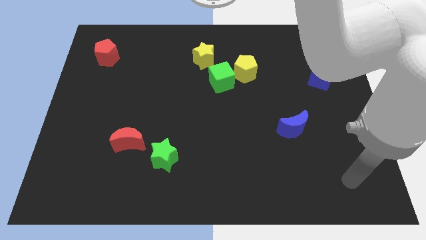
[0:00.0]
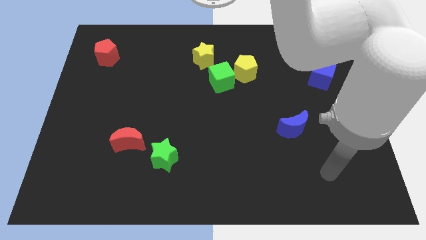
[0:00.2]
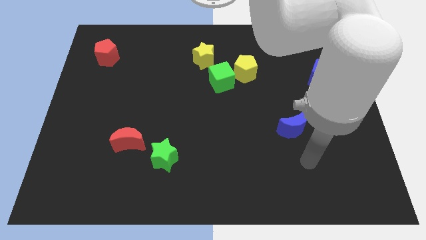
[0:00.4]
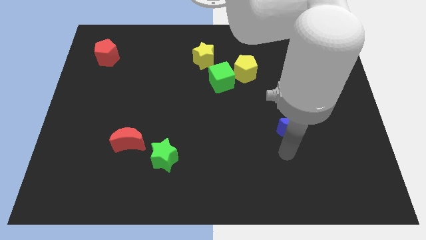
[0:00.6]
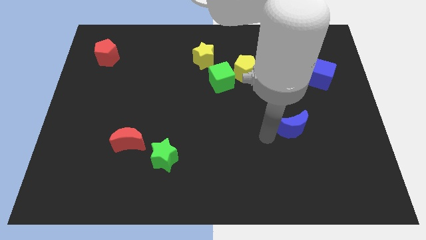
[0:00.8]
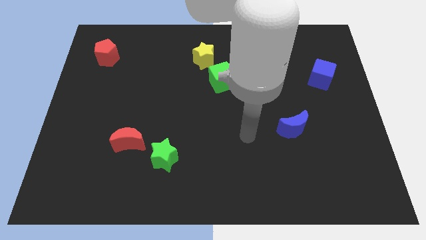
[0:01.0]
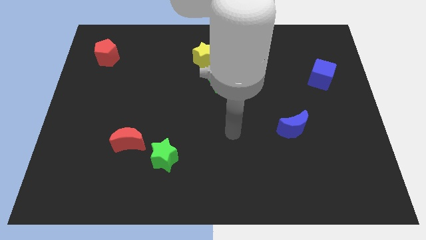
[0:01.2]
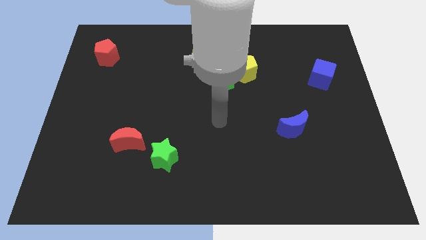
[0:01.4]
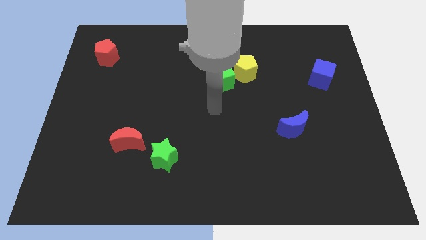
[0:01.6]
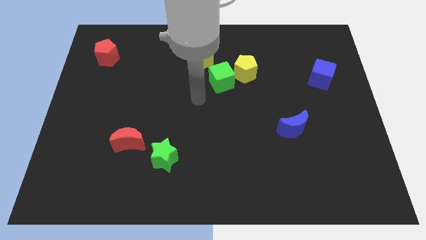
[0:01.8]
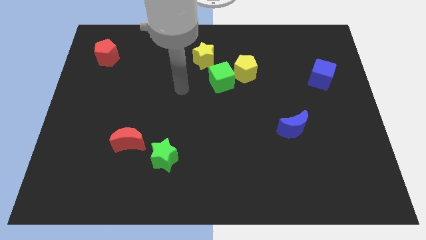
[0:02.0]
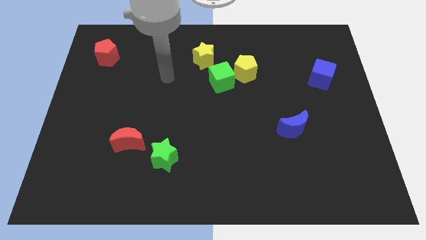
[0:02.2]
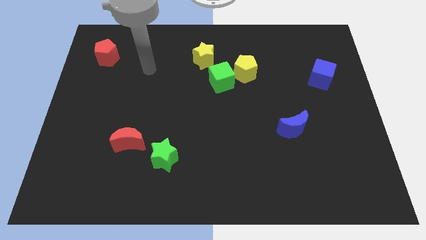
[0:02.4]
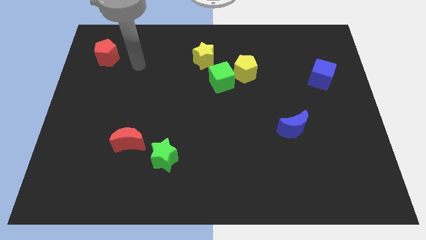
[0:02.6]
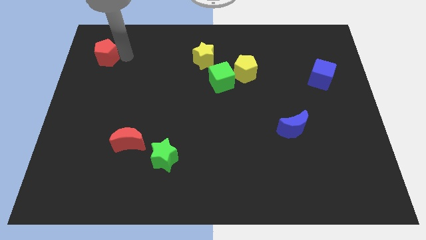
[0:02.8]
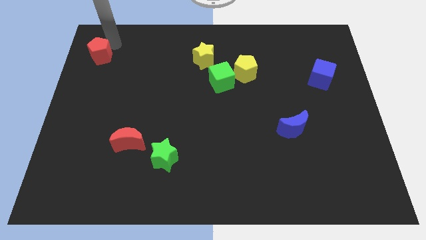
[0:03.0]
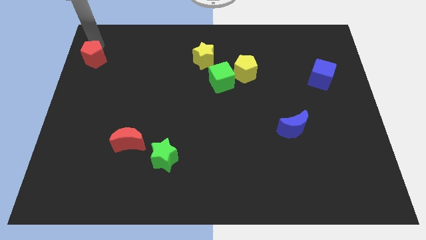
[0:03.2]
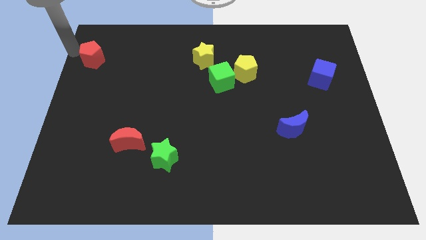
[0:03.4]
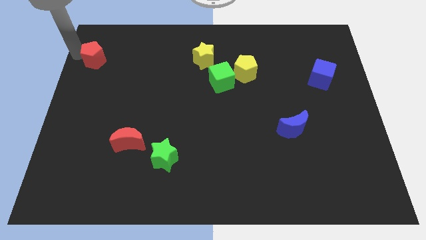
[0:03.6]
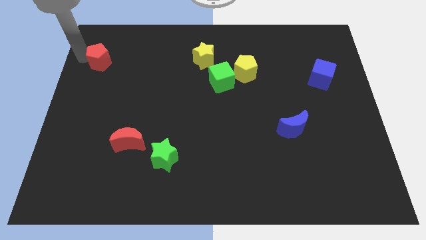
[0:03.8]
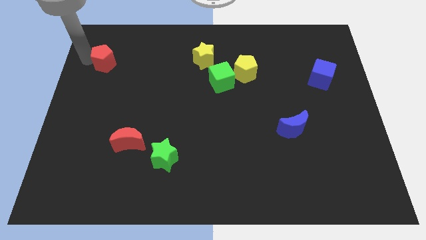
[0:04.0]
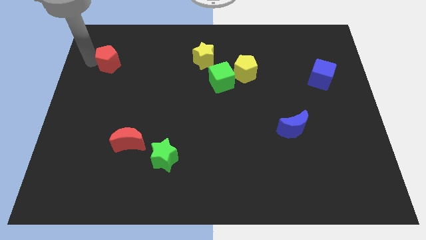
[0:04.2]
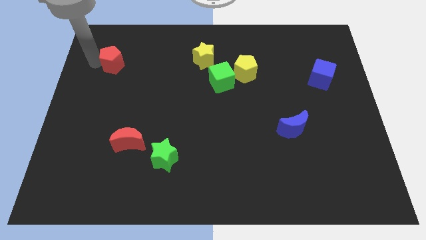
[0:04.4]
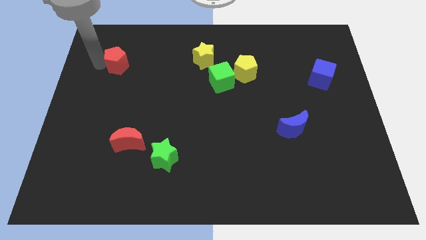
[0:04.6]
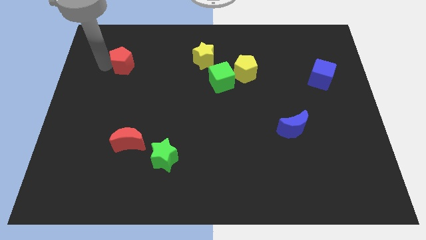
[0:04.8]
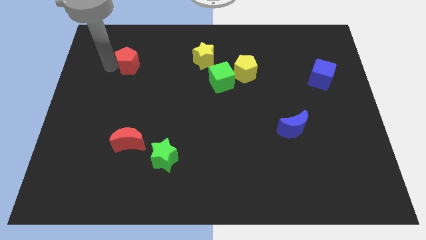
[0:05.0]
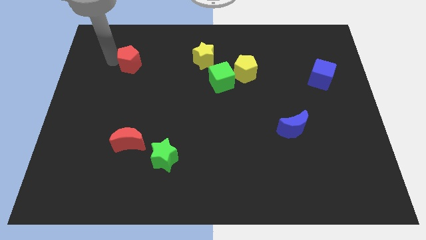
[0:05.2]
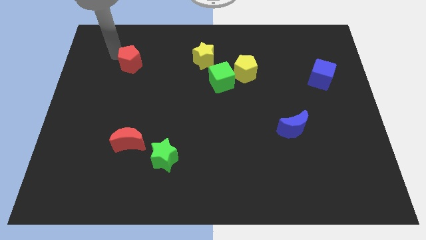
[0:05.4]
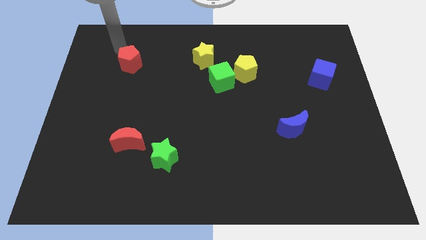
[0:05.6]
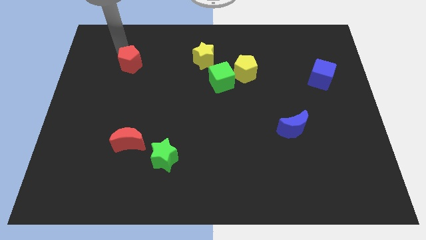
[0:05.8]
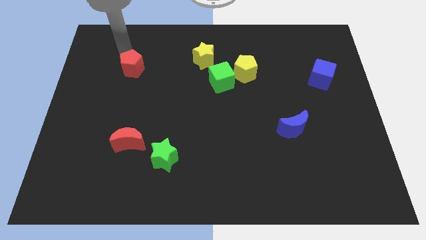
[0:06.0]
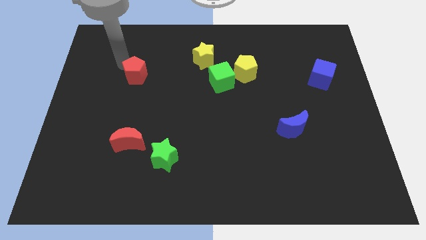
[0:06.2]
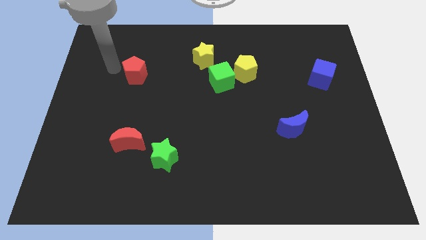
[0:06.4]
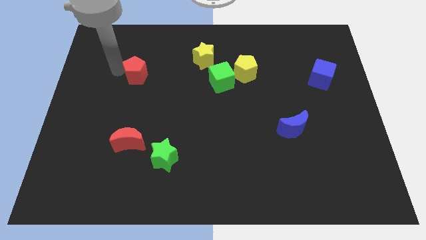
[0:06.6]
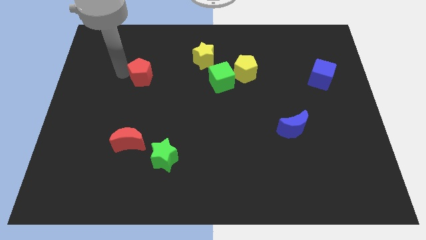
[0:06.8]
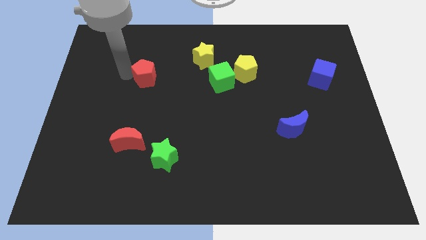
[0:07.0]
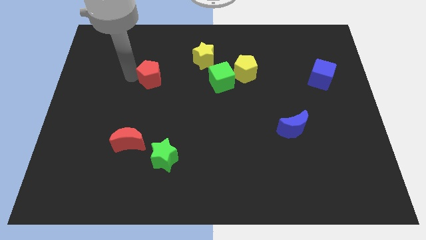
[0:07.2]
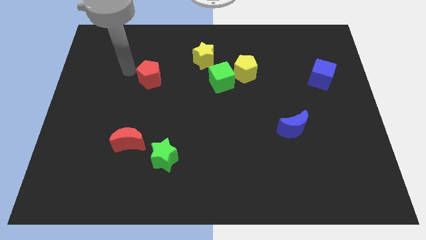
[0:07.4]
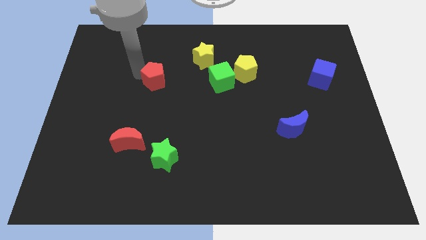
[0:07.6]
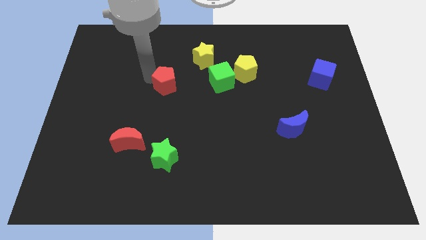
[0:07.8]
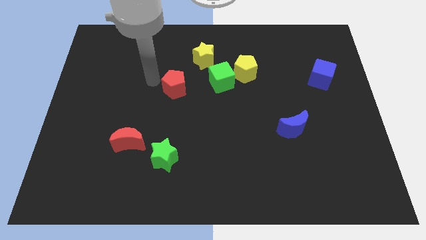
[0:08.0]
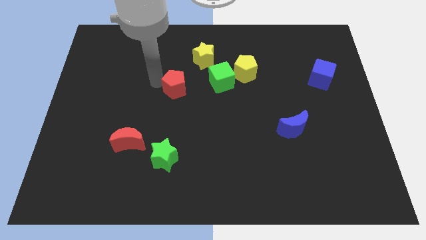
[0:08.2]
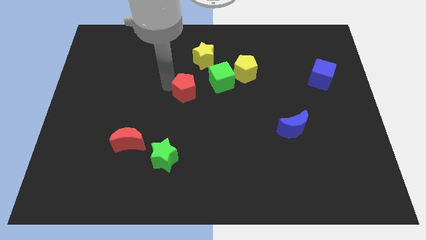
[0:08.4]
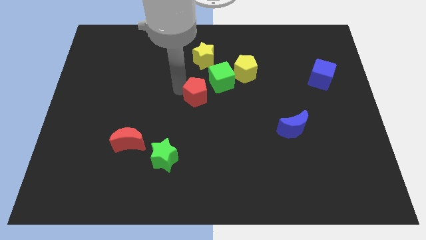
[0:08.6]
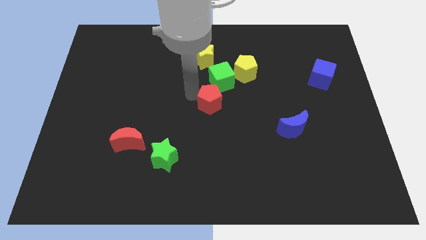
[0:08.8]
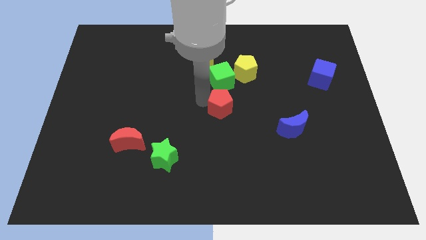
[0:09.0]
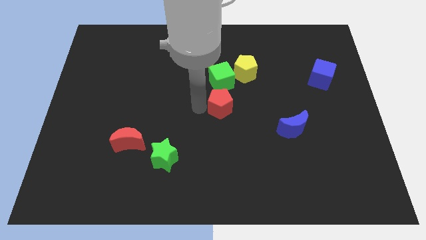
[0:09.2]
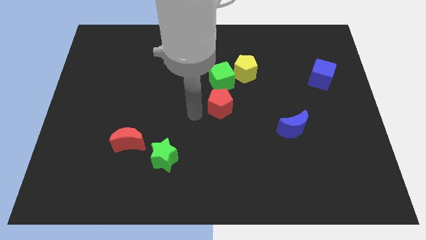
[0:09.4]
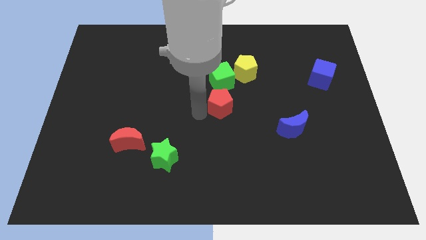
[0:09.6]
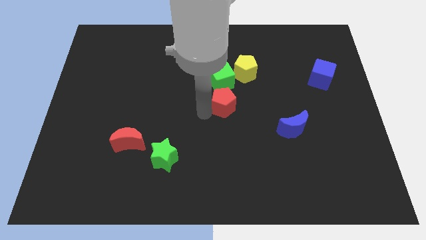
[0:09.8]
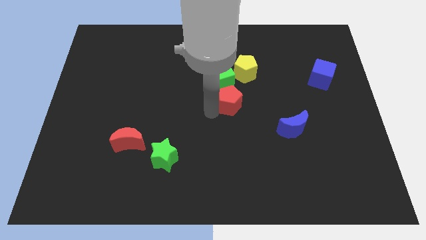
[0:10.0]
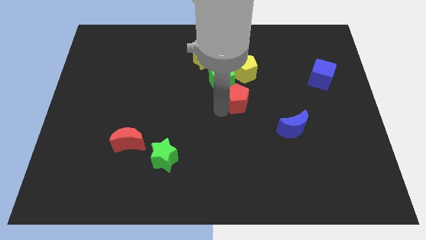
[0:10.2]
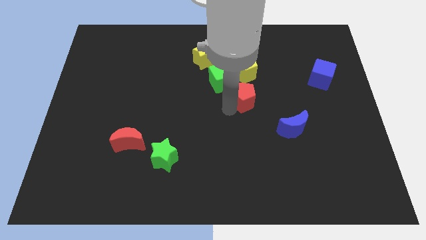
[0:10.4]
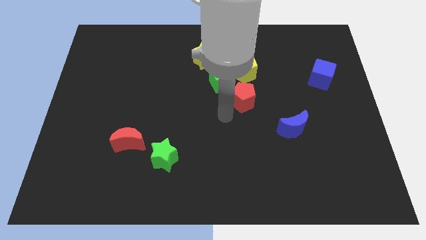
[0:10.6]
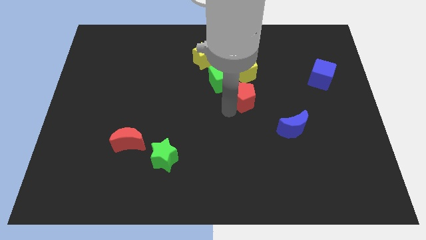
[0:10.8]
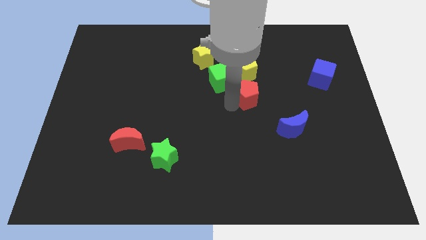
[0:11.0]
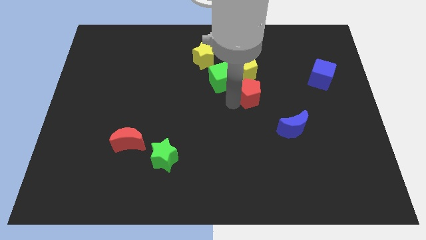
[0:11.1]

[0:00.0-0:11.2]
slide the red pentagon just right of the green cube

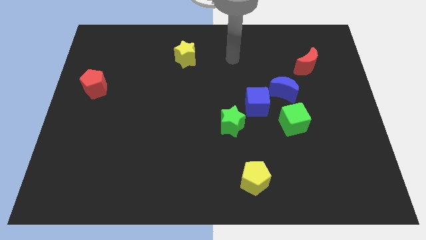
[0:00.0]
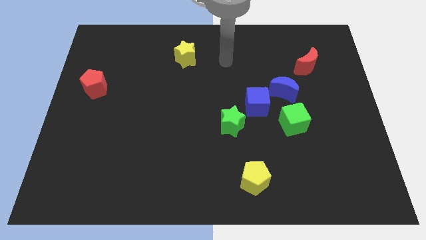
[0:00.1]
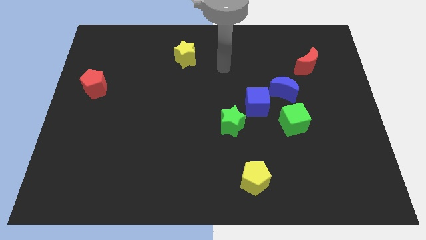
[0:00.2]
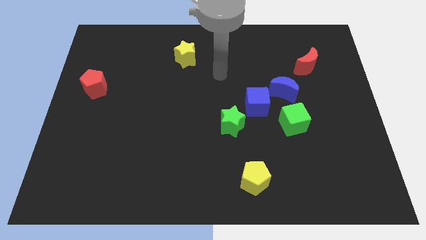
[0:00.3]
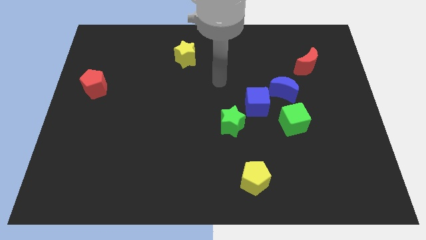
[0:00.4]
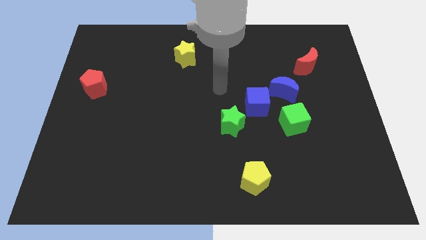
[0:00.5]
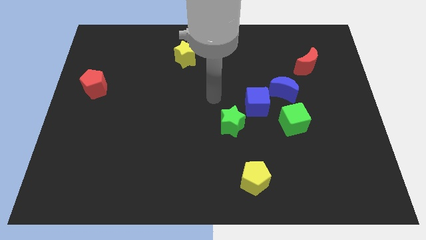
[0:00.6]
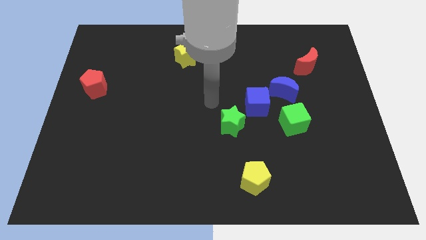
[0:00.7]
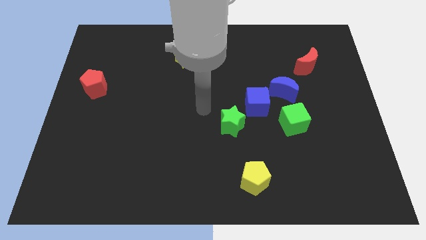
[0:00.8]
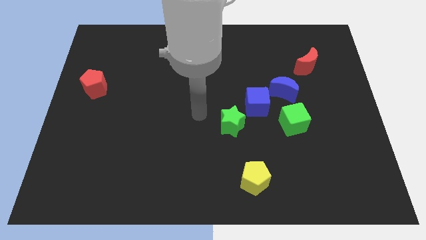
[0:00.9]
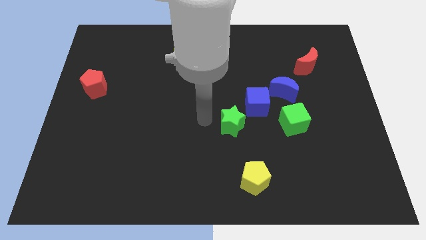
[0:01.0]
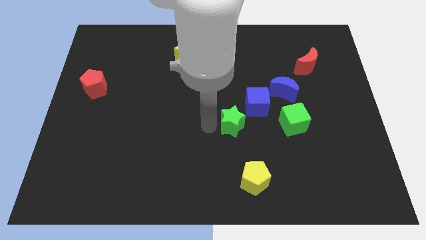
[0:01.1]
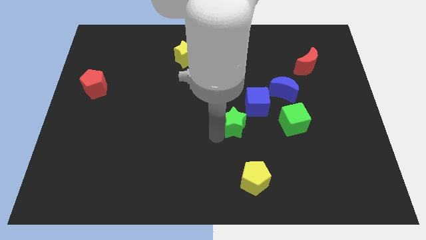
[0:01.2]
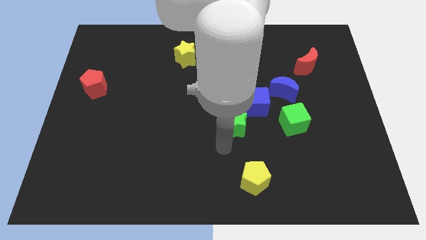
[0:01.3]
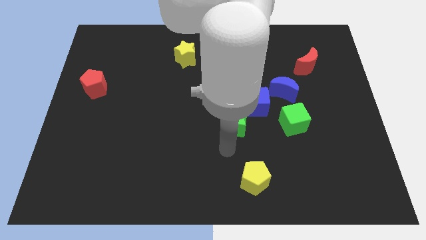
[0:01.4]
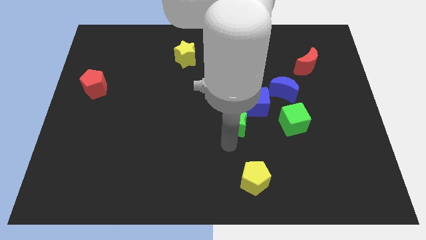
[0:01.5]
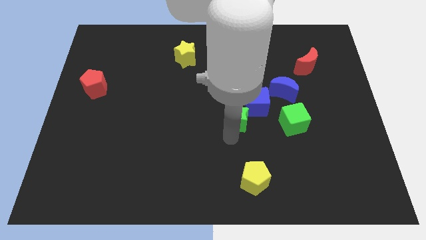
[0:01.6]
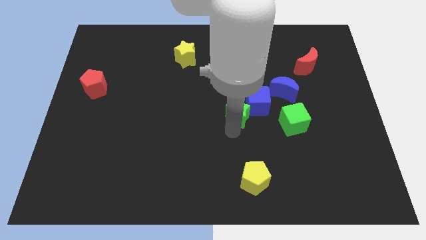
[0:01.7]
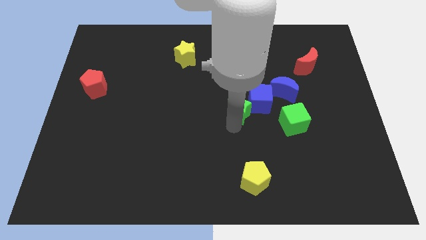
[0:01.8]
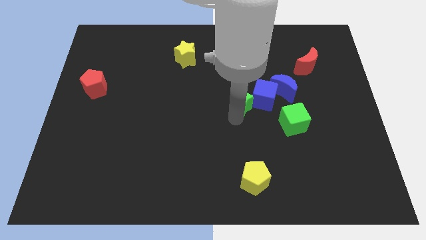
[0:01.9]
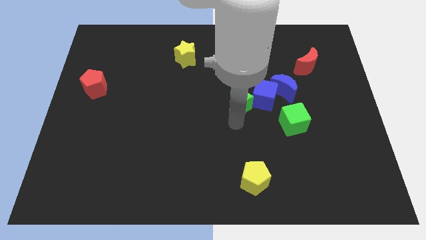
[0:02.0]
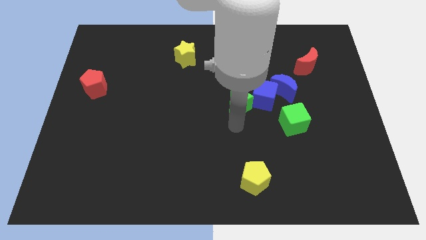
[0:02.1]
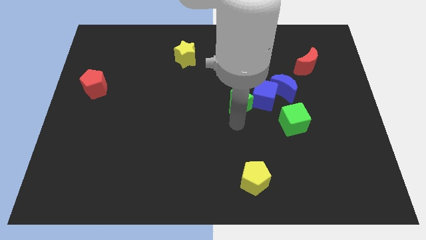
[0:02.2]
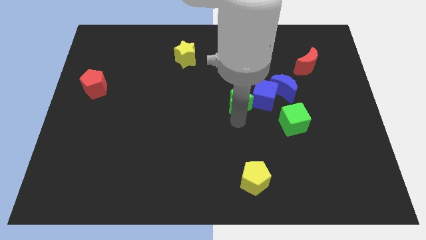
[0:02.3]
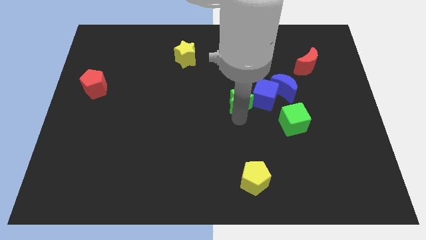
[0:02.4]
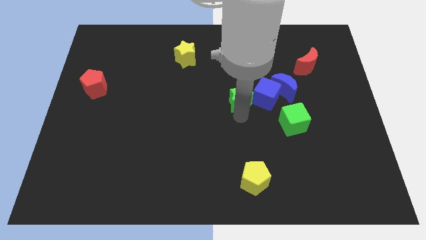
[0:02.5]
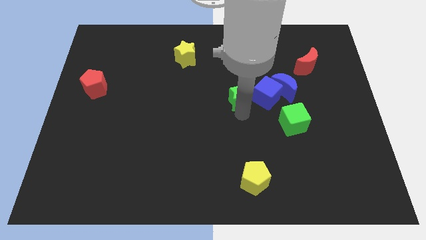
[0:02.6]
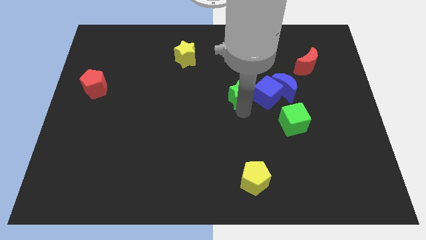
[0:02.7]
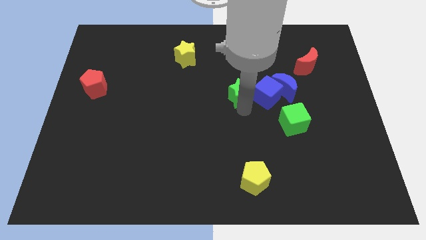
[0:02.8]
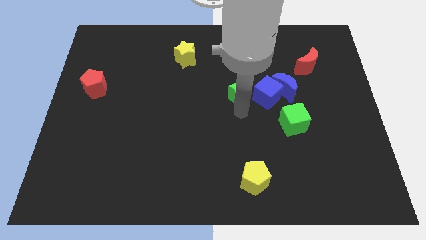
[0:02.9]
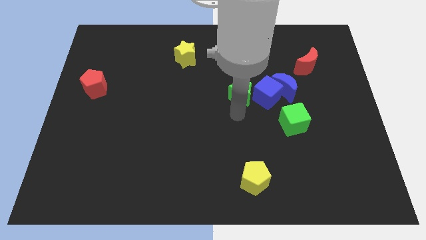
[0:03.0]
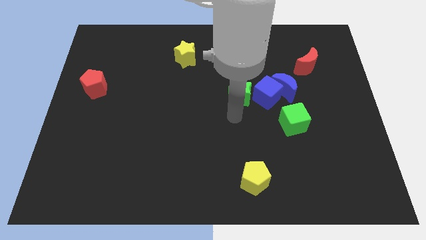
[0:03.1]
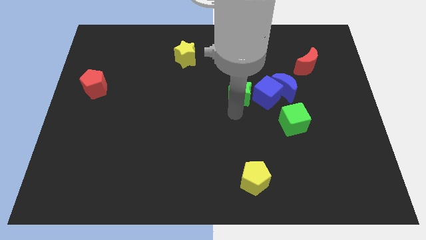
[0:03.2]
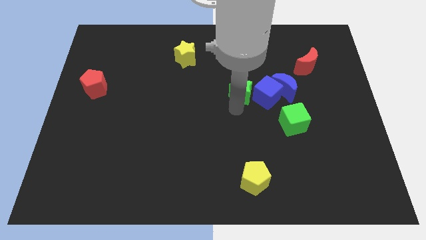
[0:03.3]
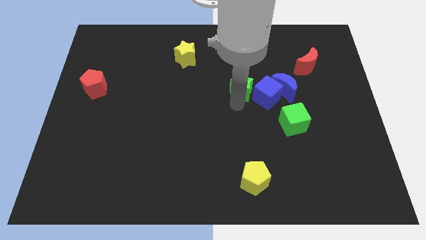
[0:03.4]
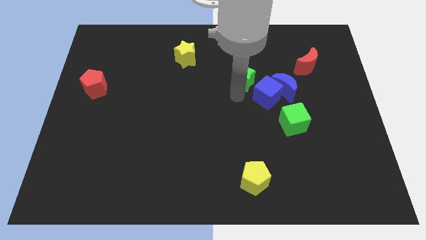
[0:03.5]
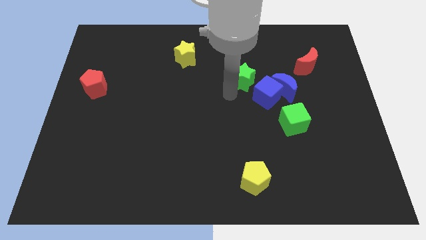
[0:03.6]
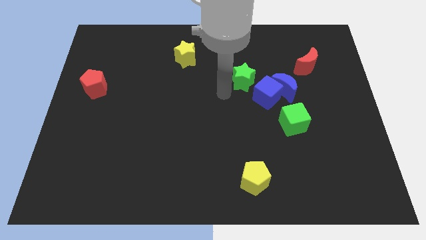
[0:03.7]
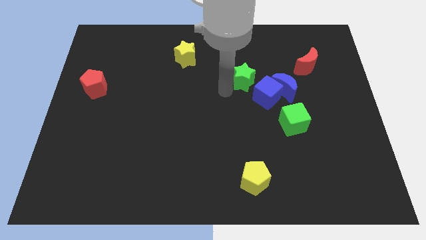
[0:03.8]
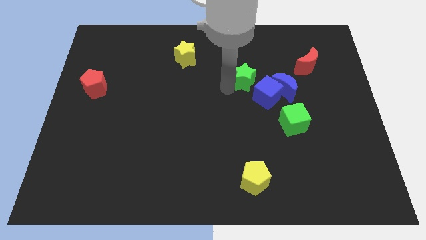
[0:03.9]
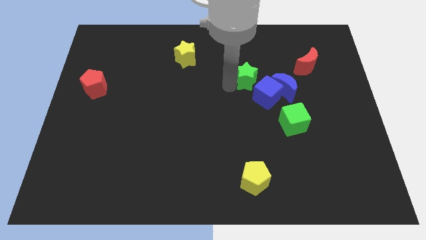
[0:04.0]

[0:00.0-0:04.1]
slide the green star to the top side of the blue cube
